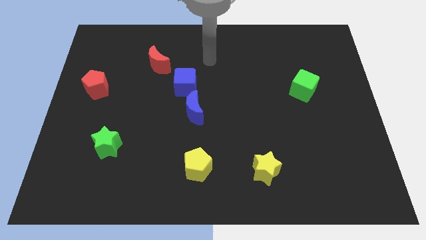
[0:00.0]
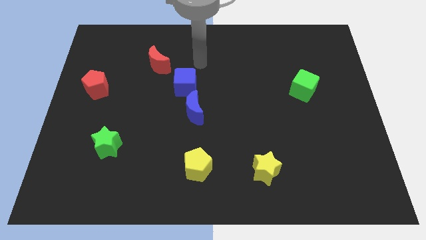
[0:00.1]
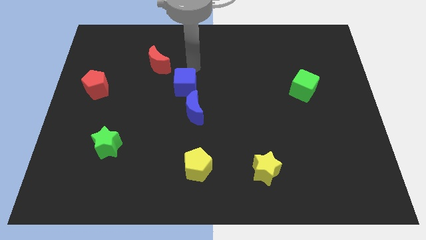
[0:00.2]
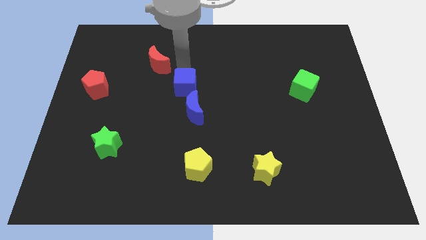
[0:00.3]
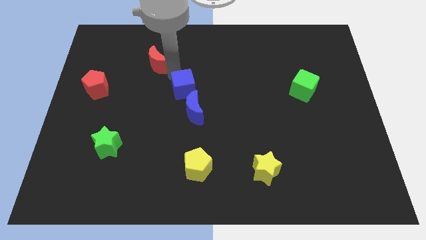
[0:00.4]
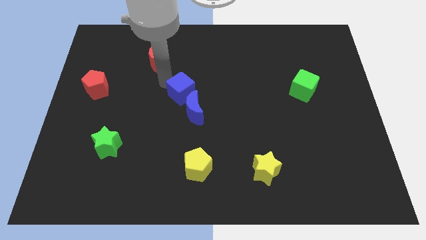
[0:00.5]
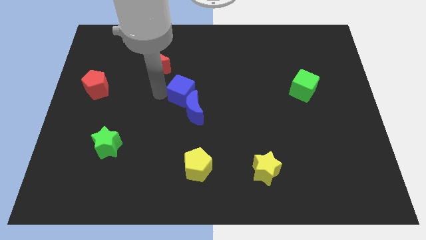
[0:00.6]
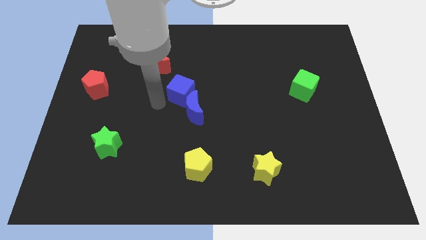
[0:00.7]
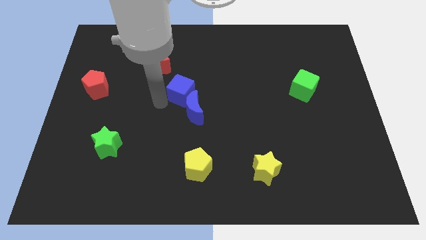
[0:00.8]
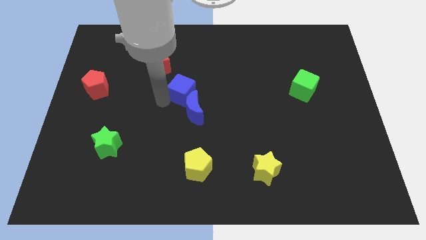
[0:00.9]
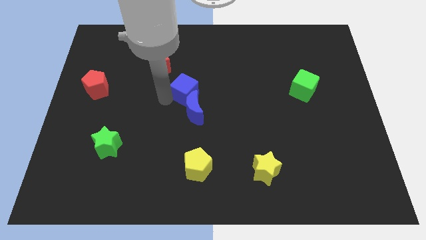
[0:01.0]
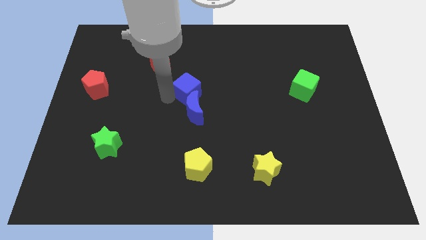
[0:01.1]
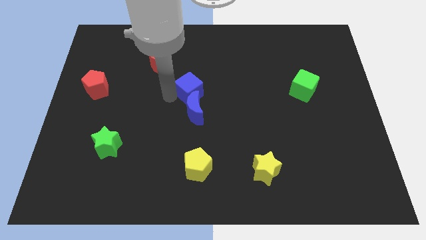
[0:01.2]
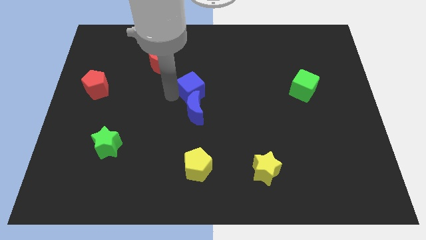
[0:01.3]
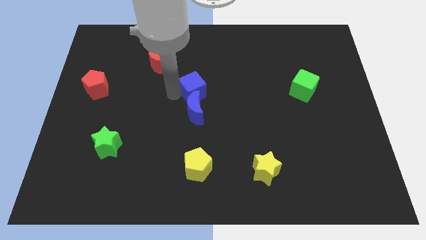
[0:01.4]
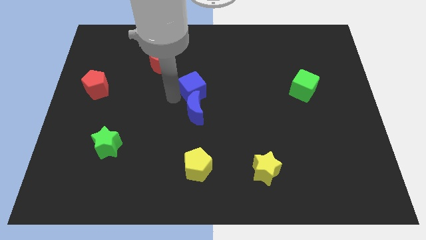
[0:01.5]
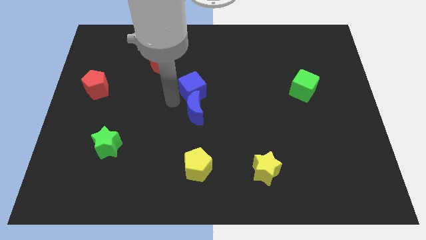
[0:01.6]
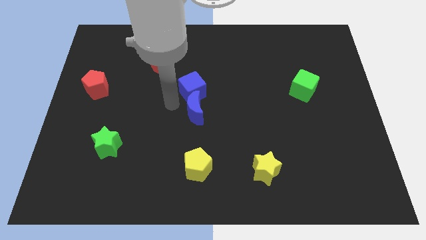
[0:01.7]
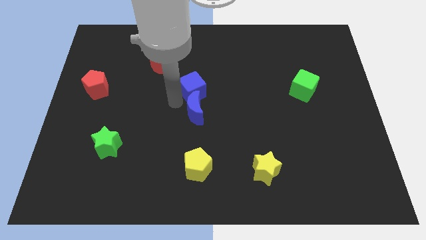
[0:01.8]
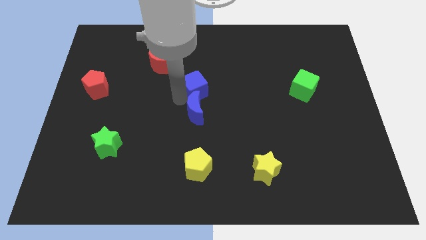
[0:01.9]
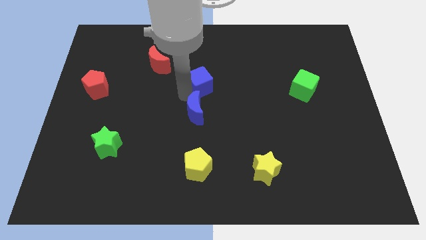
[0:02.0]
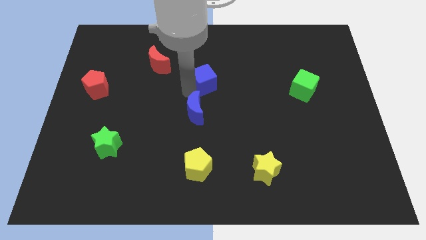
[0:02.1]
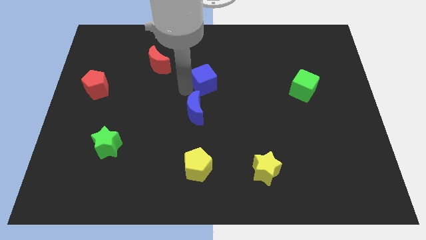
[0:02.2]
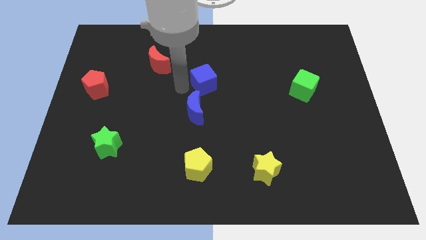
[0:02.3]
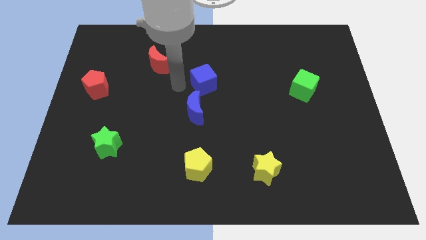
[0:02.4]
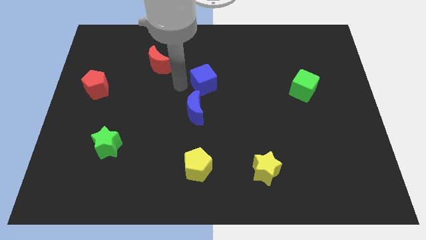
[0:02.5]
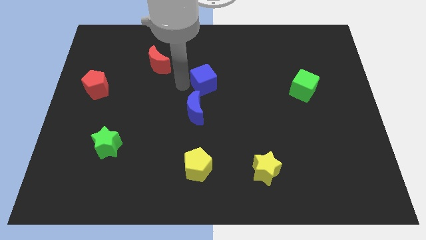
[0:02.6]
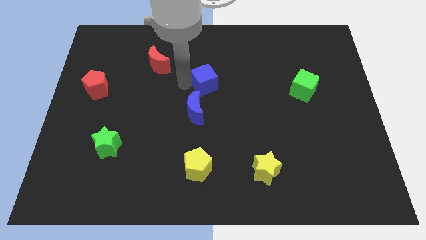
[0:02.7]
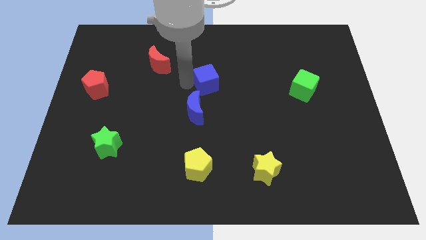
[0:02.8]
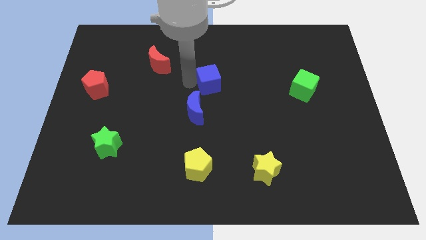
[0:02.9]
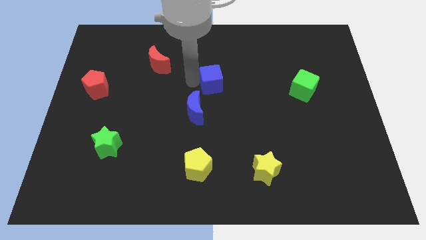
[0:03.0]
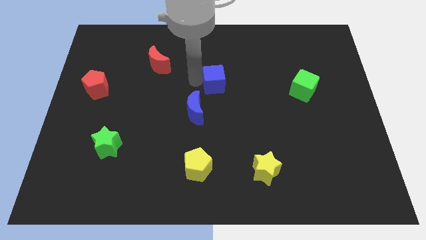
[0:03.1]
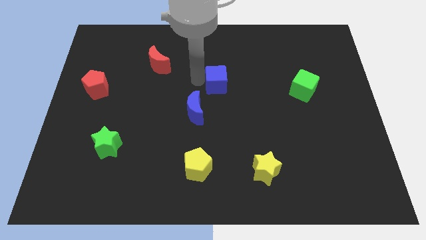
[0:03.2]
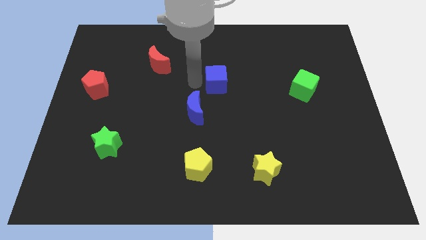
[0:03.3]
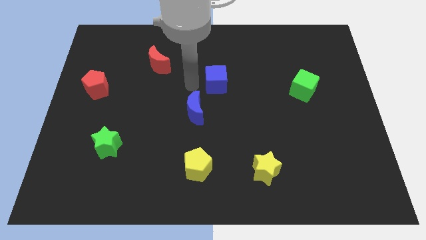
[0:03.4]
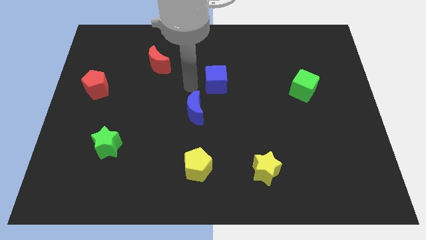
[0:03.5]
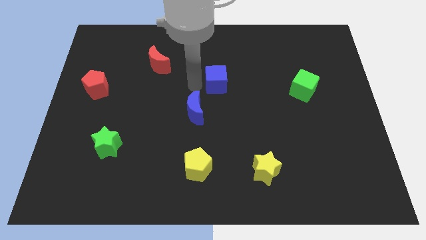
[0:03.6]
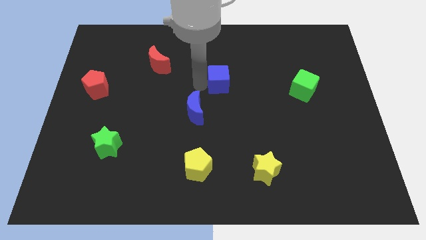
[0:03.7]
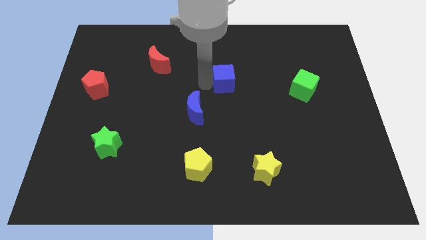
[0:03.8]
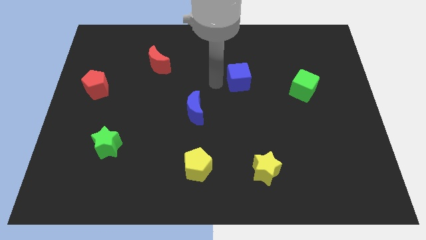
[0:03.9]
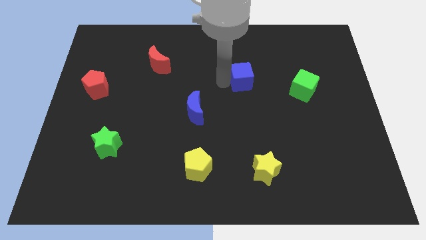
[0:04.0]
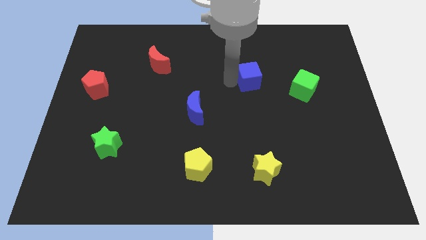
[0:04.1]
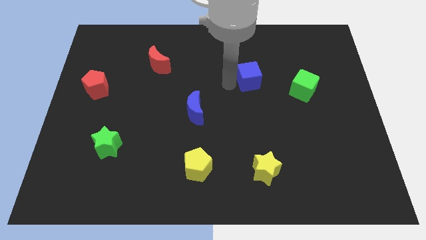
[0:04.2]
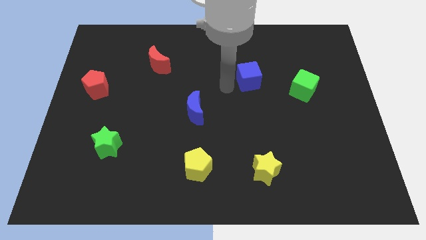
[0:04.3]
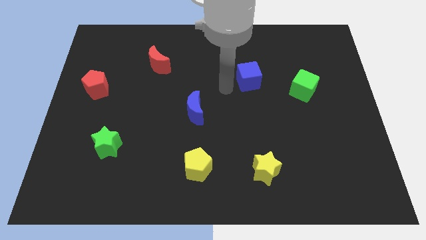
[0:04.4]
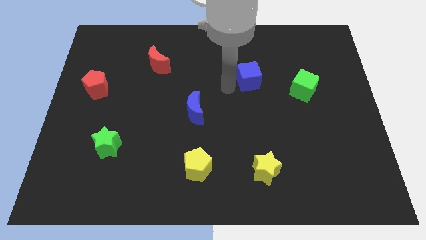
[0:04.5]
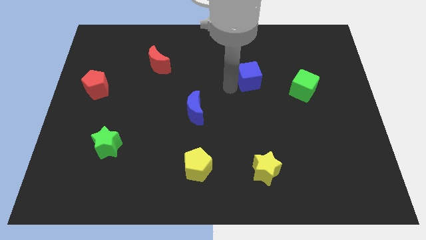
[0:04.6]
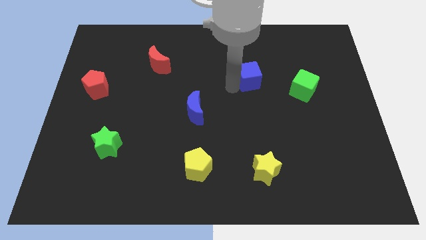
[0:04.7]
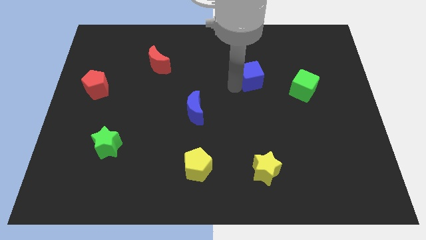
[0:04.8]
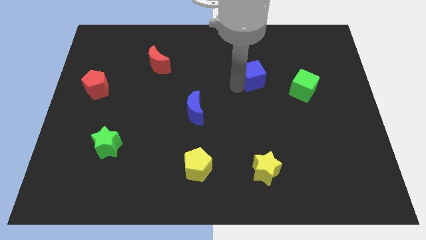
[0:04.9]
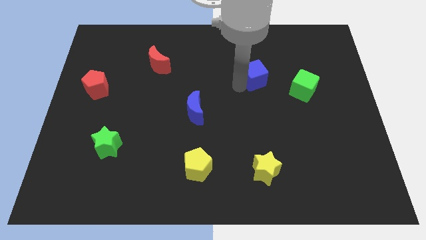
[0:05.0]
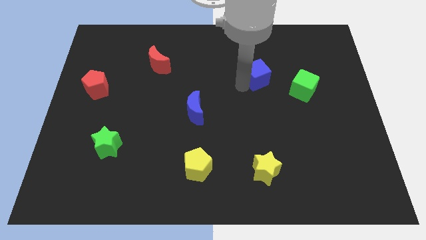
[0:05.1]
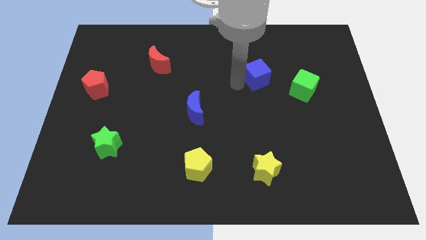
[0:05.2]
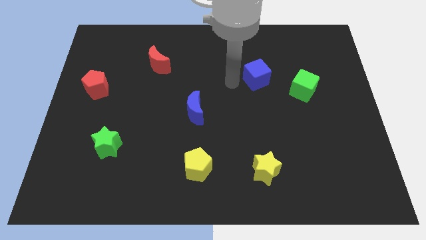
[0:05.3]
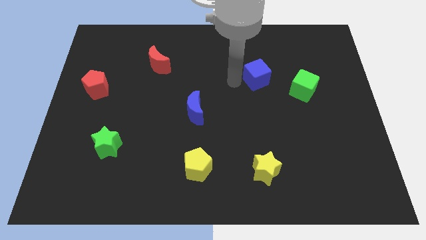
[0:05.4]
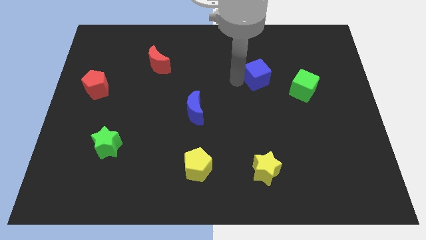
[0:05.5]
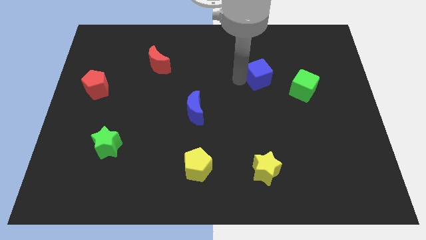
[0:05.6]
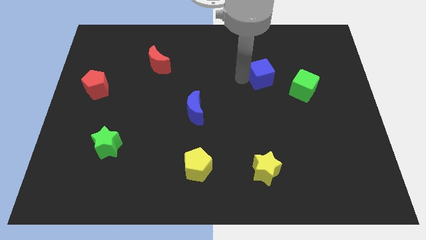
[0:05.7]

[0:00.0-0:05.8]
put the blue cube to the top left of the green cube

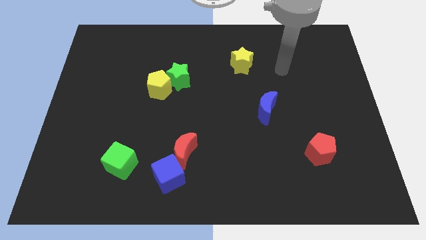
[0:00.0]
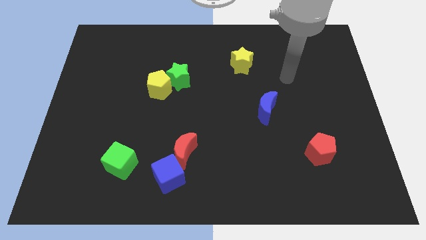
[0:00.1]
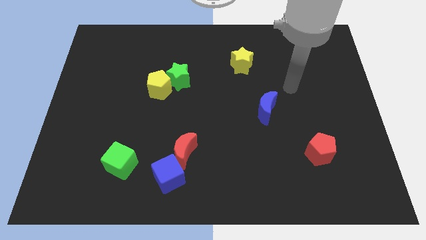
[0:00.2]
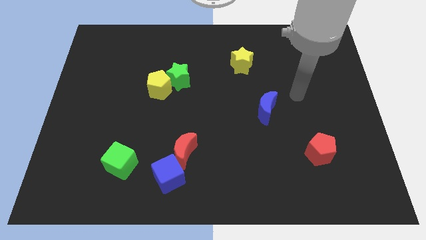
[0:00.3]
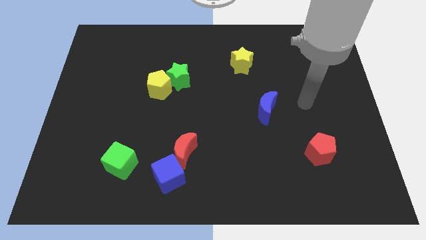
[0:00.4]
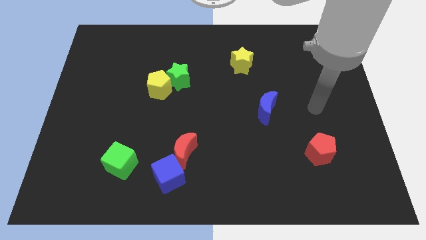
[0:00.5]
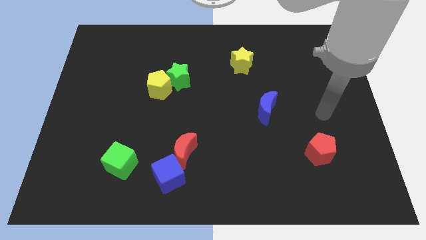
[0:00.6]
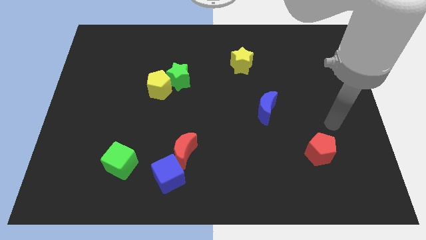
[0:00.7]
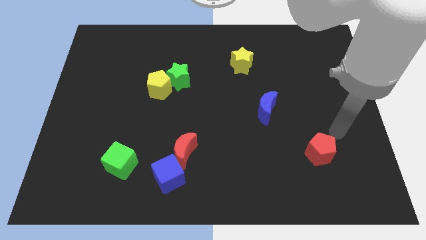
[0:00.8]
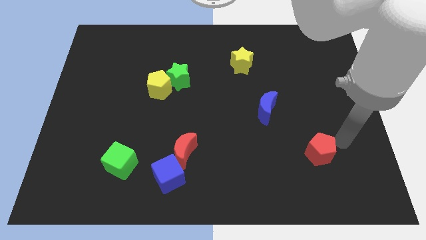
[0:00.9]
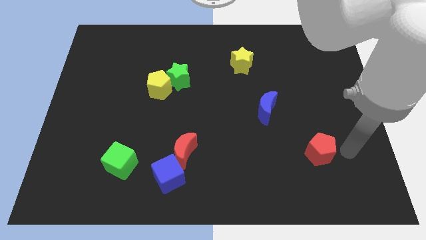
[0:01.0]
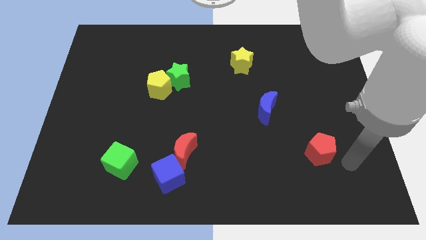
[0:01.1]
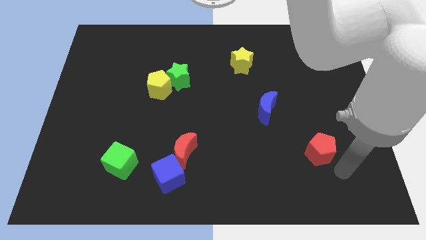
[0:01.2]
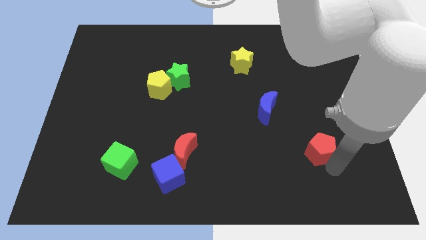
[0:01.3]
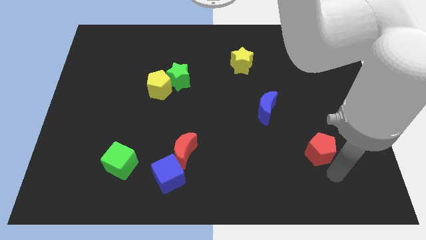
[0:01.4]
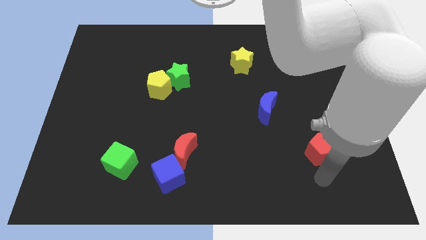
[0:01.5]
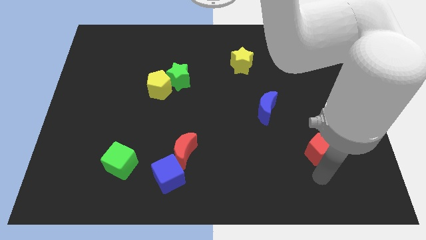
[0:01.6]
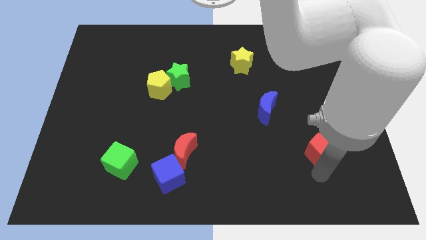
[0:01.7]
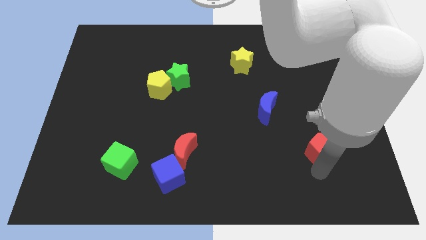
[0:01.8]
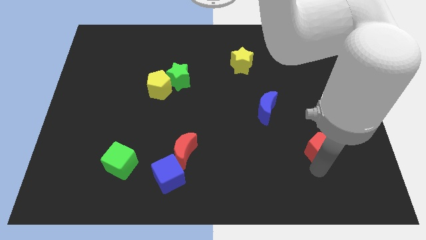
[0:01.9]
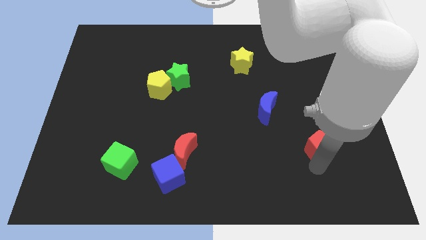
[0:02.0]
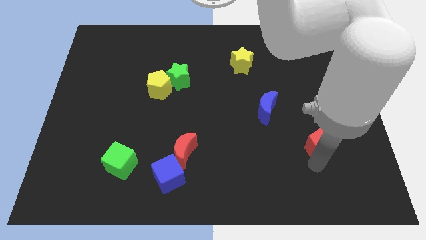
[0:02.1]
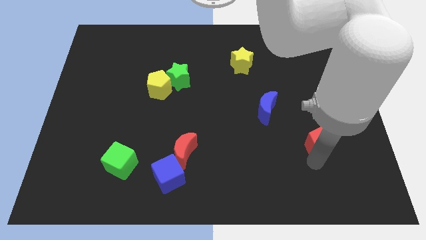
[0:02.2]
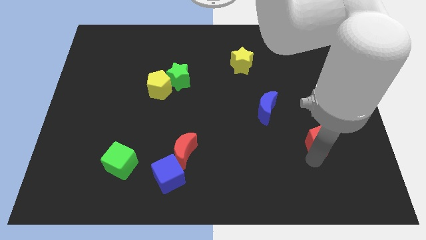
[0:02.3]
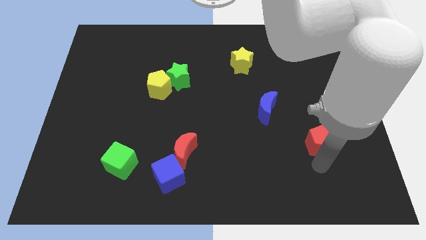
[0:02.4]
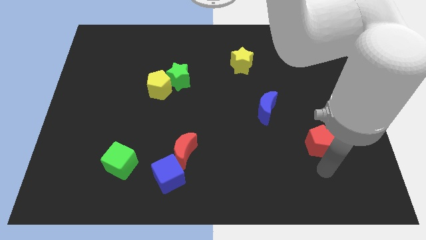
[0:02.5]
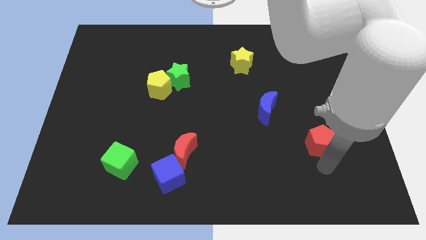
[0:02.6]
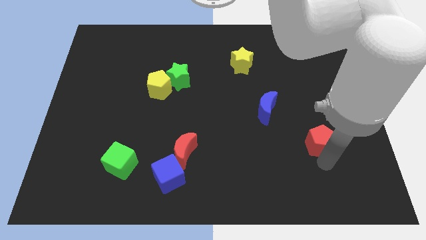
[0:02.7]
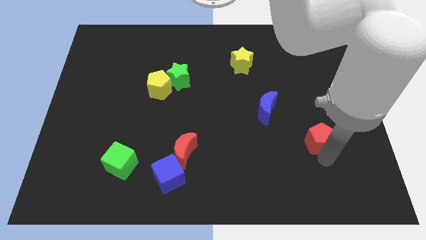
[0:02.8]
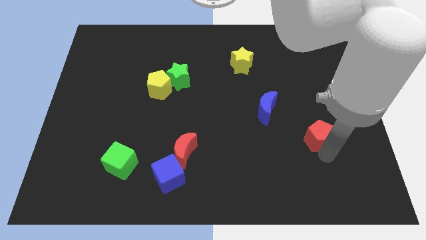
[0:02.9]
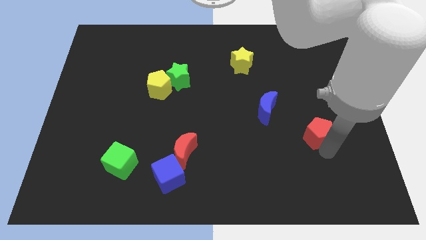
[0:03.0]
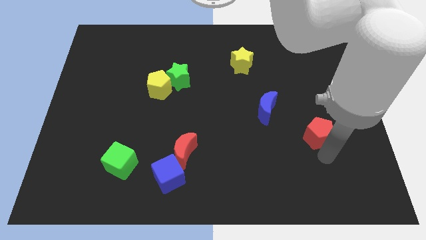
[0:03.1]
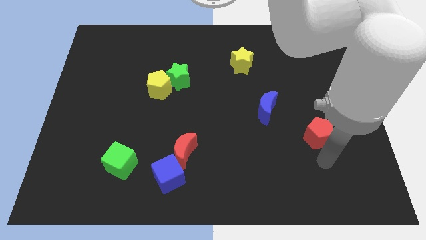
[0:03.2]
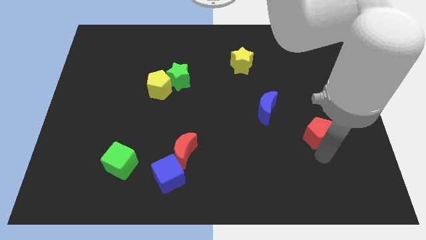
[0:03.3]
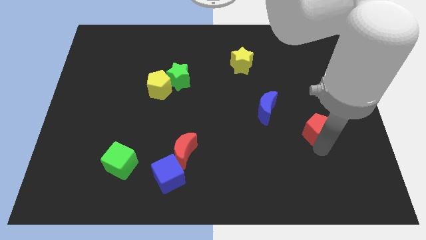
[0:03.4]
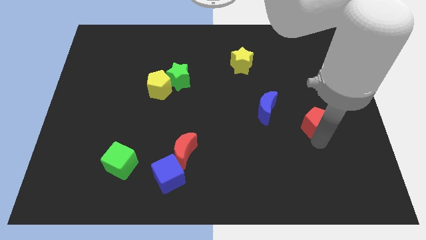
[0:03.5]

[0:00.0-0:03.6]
slide the red pentagon just right of the blue moon
